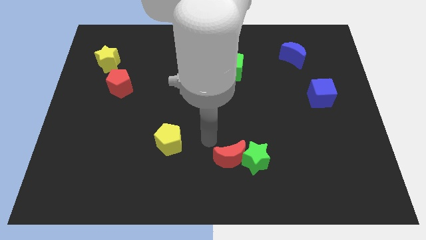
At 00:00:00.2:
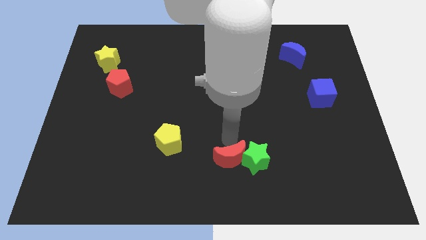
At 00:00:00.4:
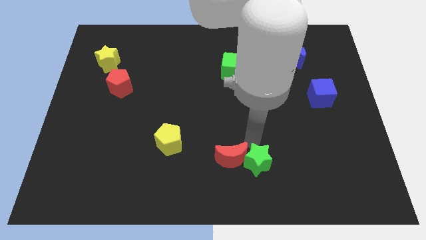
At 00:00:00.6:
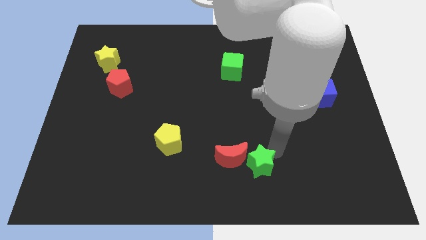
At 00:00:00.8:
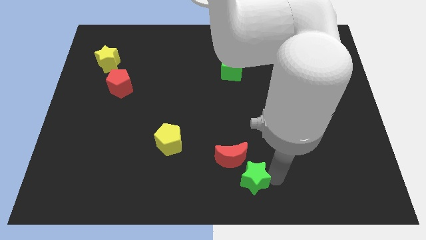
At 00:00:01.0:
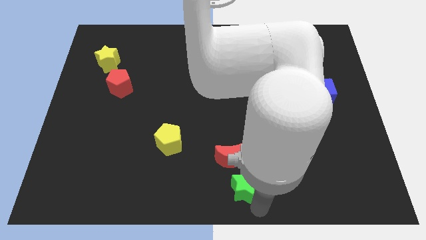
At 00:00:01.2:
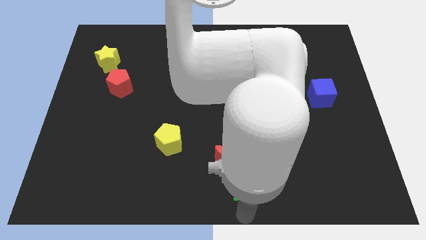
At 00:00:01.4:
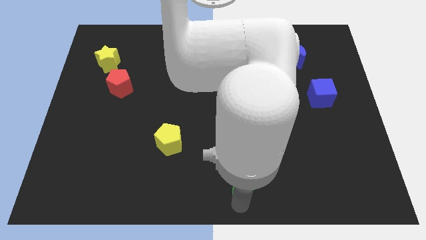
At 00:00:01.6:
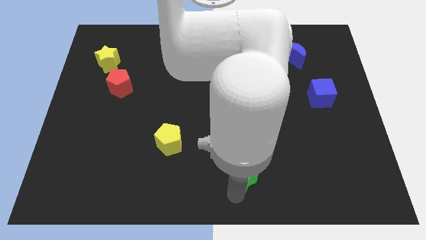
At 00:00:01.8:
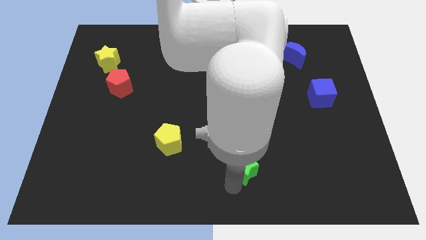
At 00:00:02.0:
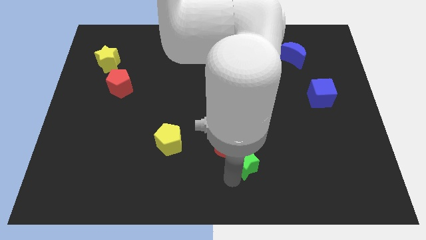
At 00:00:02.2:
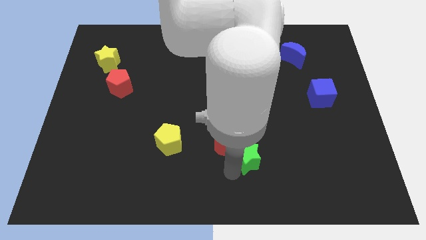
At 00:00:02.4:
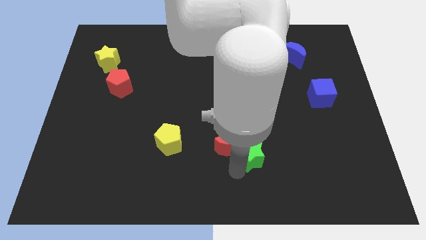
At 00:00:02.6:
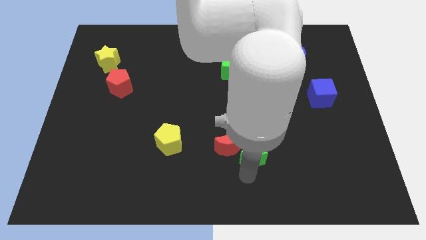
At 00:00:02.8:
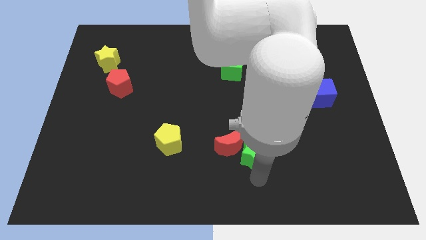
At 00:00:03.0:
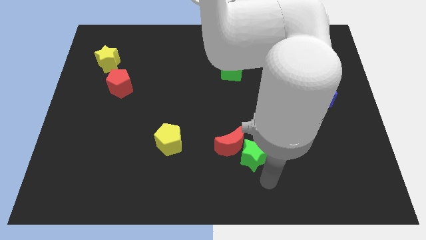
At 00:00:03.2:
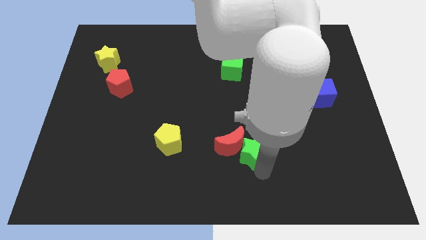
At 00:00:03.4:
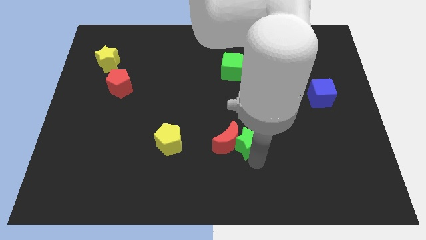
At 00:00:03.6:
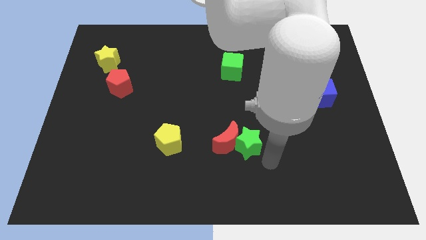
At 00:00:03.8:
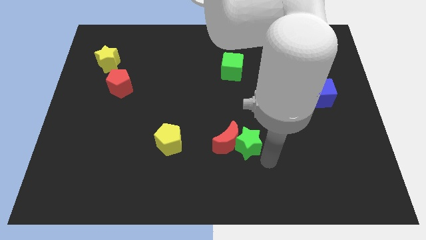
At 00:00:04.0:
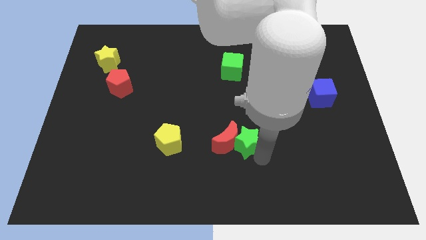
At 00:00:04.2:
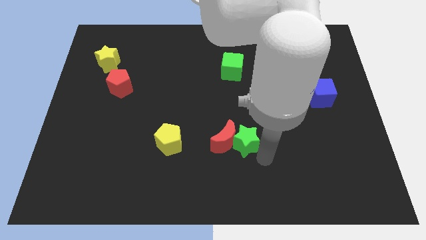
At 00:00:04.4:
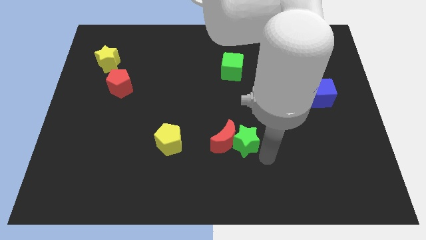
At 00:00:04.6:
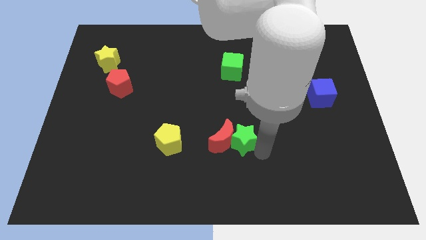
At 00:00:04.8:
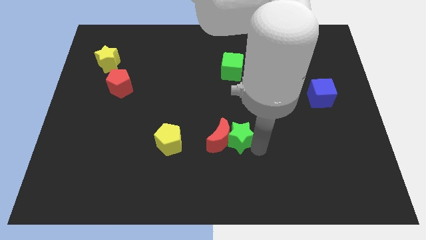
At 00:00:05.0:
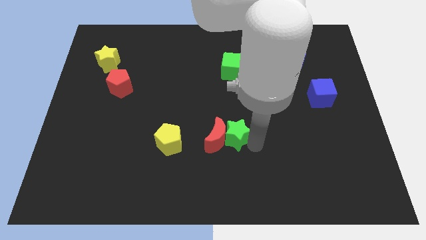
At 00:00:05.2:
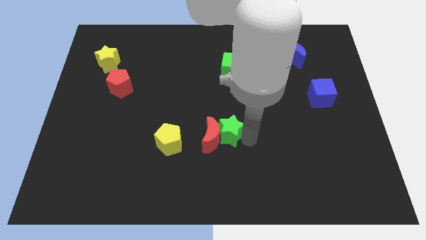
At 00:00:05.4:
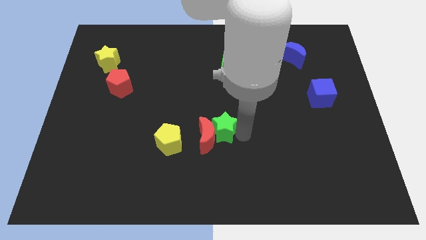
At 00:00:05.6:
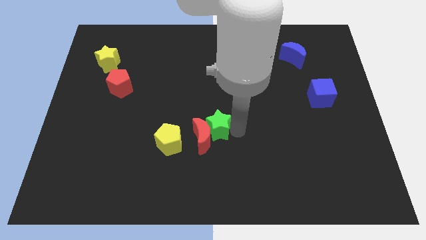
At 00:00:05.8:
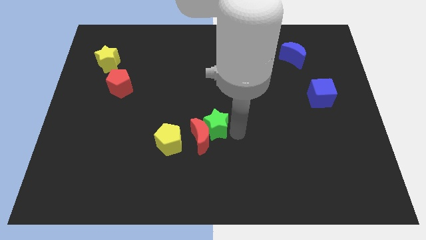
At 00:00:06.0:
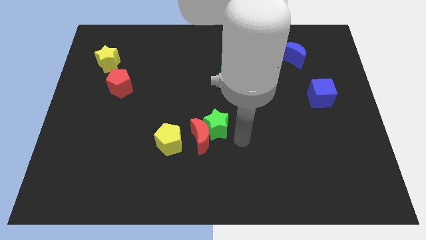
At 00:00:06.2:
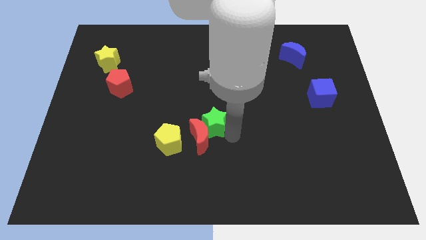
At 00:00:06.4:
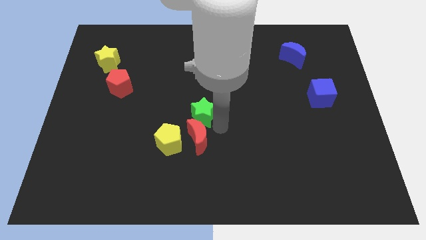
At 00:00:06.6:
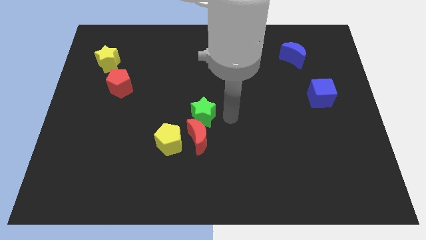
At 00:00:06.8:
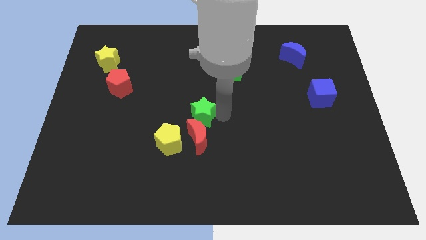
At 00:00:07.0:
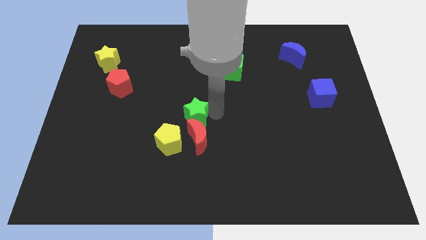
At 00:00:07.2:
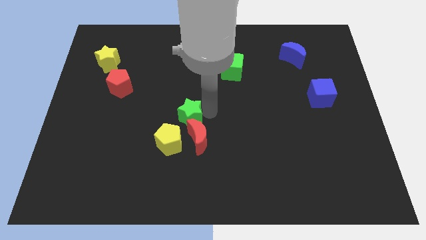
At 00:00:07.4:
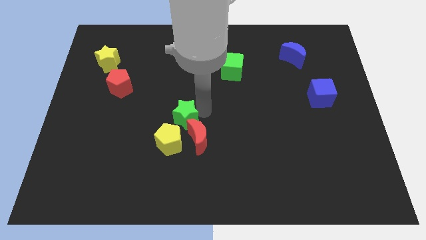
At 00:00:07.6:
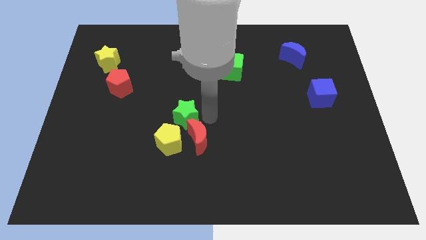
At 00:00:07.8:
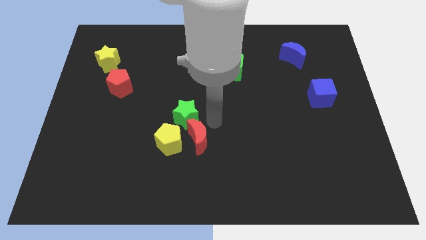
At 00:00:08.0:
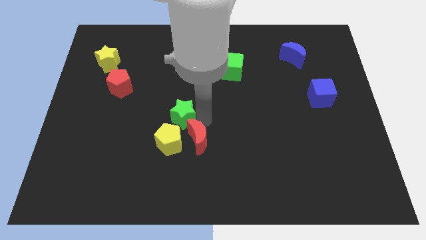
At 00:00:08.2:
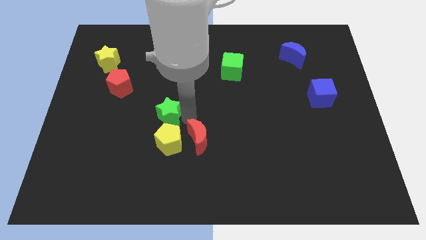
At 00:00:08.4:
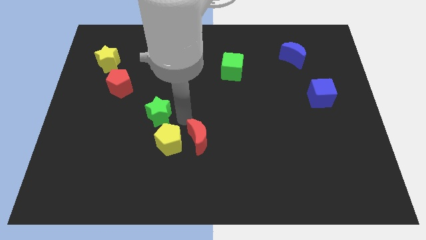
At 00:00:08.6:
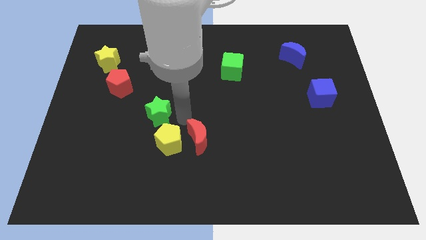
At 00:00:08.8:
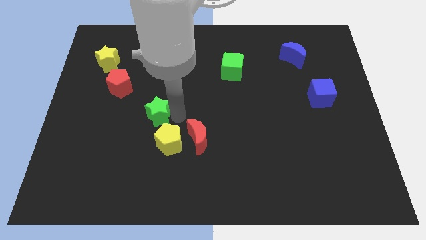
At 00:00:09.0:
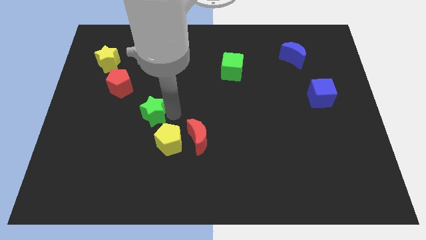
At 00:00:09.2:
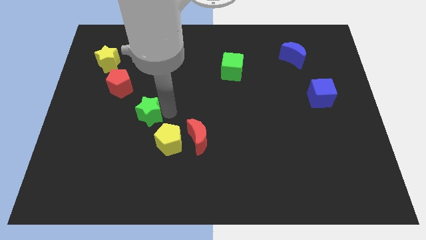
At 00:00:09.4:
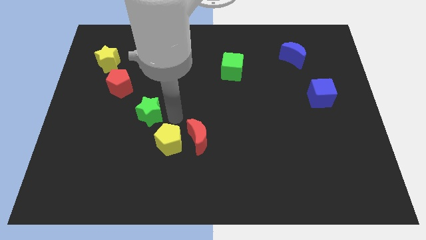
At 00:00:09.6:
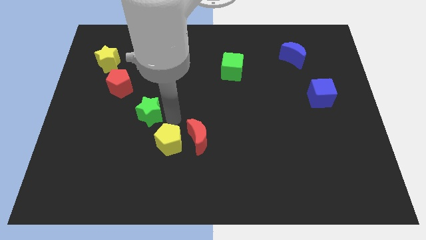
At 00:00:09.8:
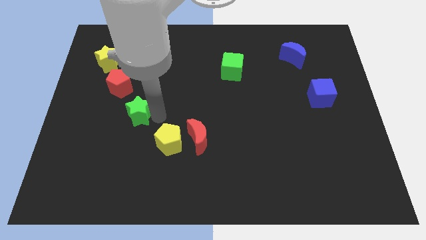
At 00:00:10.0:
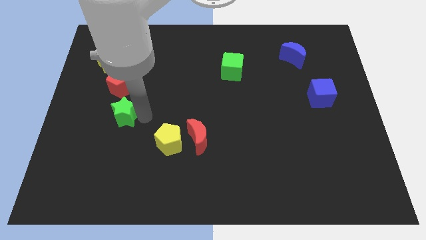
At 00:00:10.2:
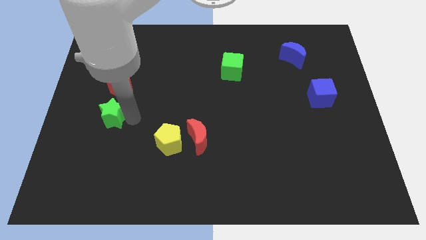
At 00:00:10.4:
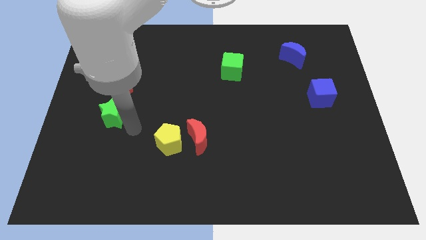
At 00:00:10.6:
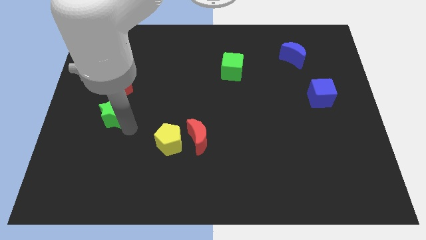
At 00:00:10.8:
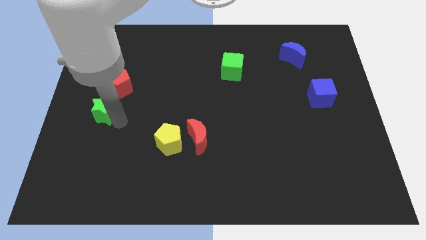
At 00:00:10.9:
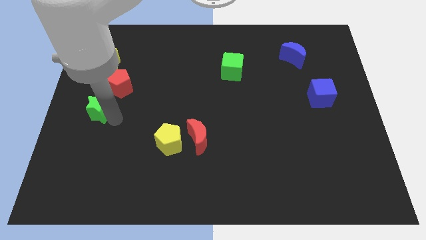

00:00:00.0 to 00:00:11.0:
slide the green star to the center left
